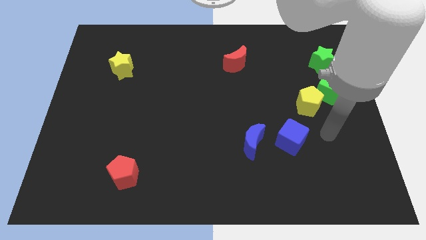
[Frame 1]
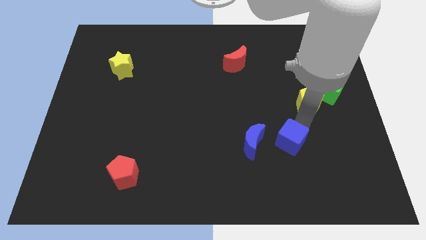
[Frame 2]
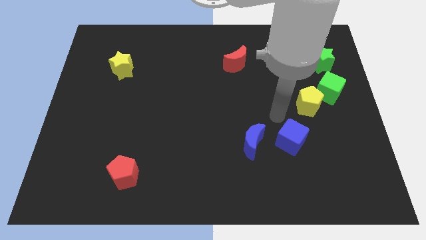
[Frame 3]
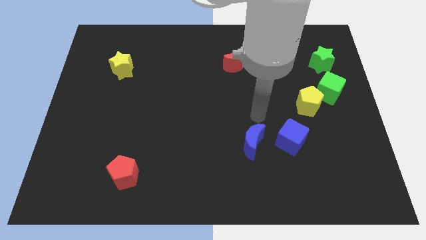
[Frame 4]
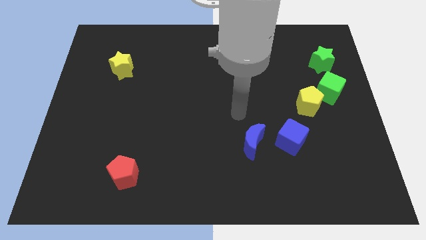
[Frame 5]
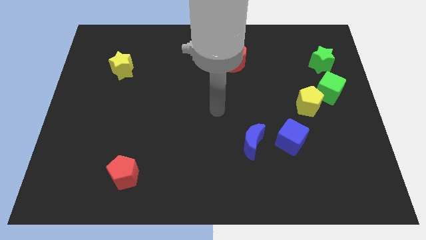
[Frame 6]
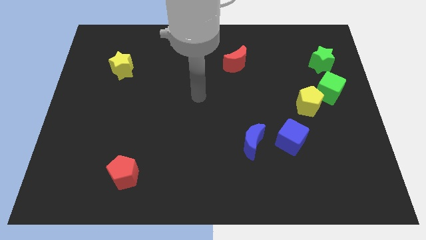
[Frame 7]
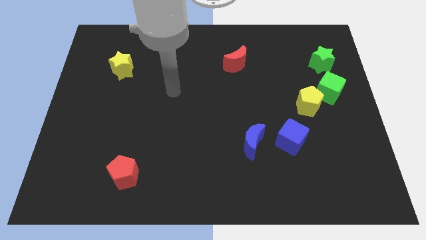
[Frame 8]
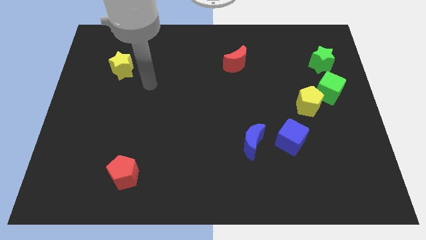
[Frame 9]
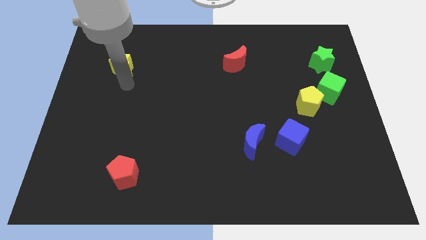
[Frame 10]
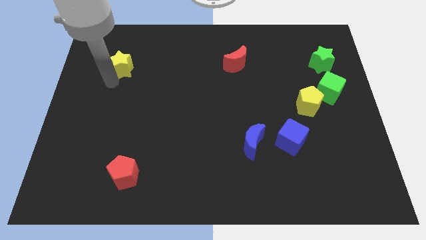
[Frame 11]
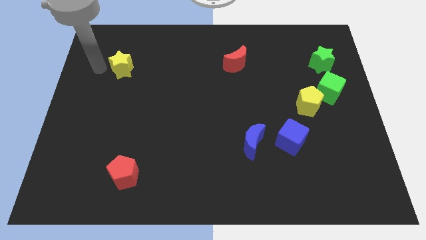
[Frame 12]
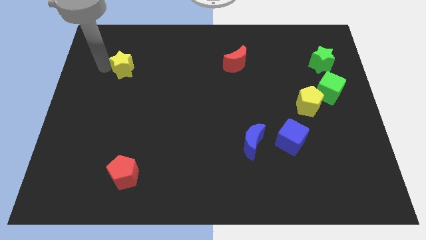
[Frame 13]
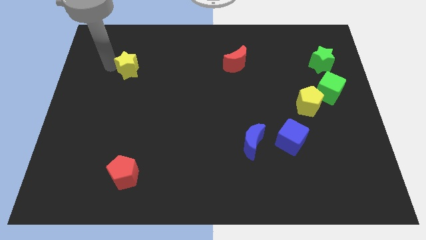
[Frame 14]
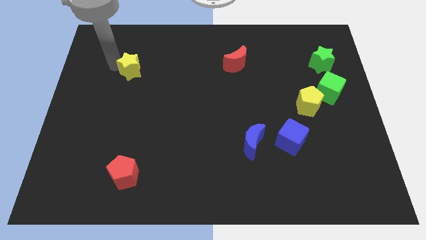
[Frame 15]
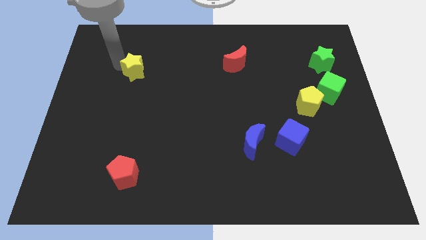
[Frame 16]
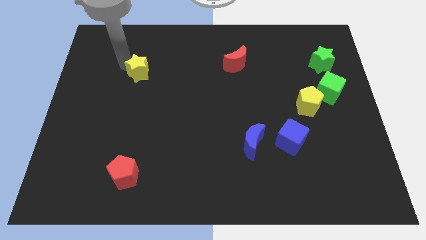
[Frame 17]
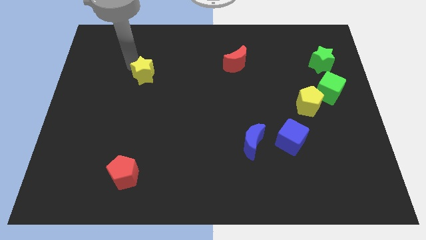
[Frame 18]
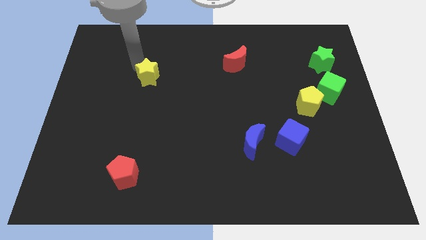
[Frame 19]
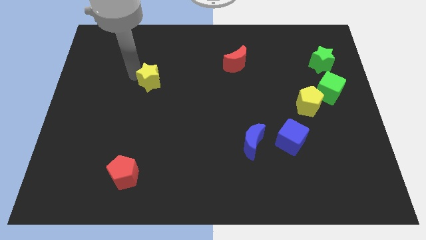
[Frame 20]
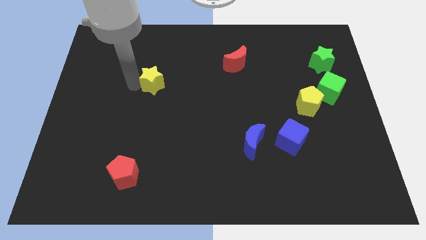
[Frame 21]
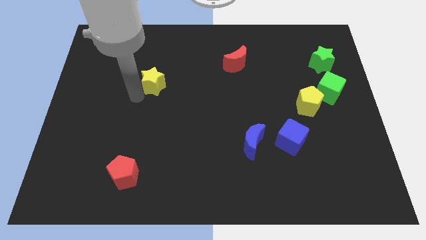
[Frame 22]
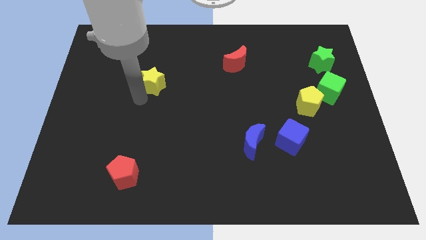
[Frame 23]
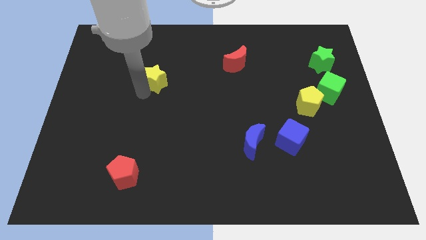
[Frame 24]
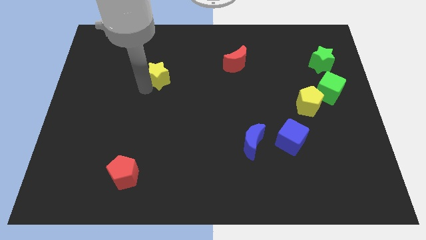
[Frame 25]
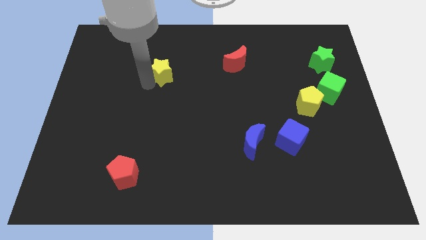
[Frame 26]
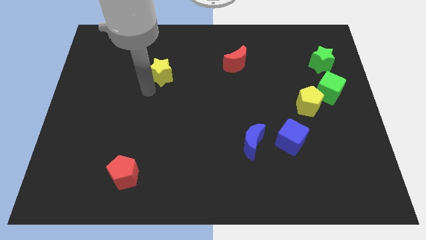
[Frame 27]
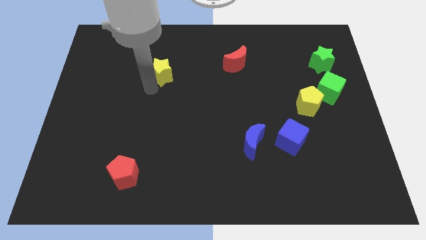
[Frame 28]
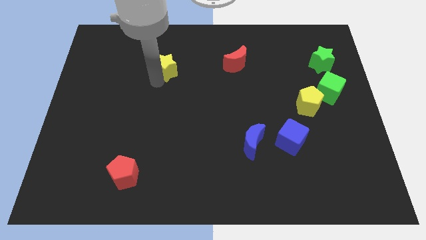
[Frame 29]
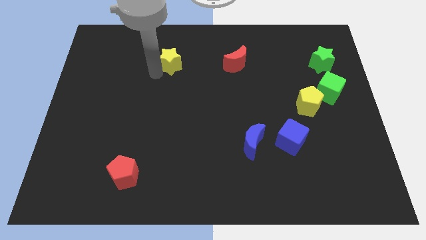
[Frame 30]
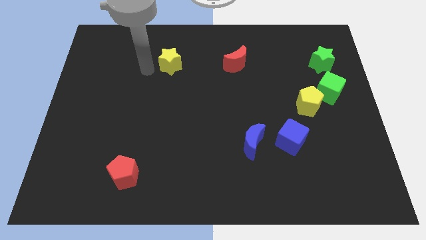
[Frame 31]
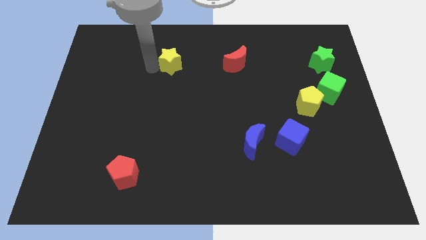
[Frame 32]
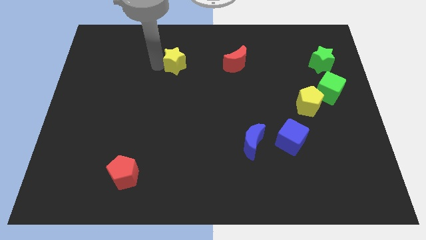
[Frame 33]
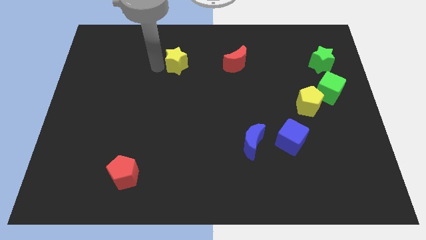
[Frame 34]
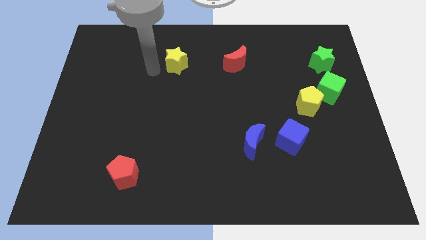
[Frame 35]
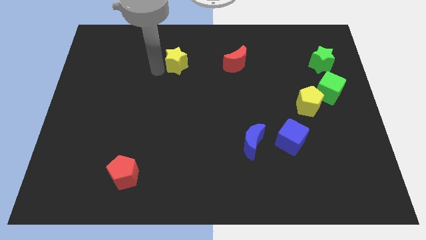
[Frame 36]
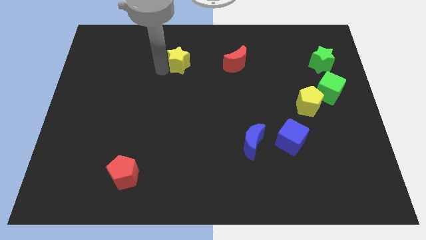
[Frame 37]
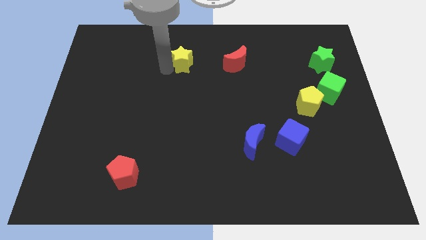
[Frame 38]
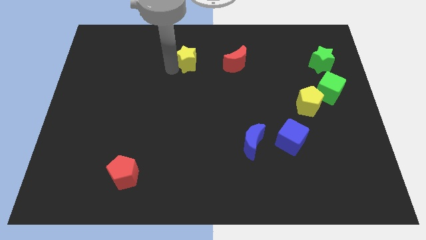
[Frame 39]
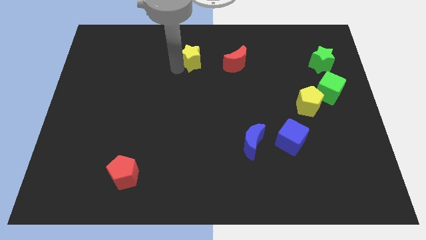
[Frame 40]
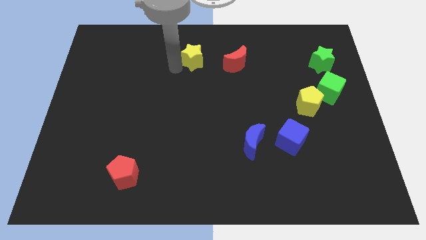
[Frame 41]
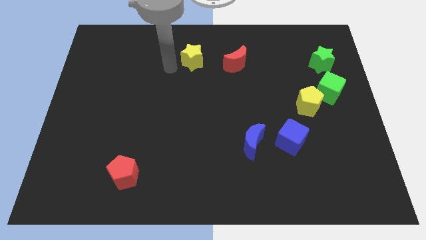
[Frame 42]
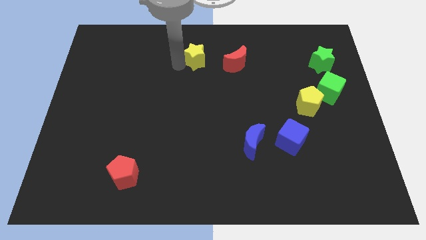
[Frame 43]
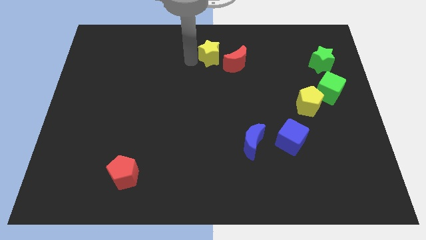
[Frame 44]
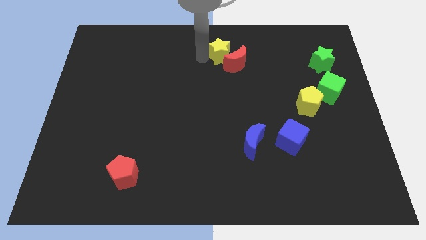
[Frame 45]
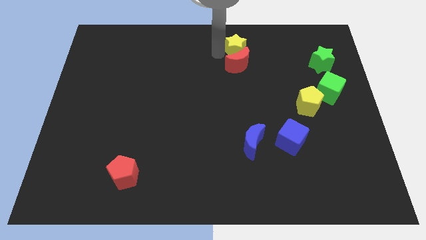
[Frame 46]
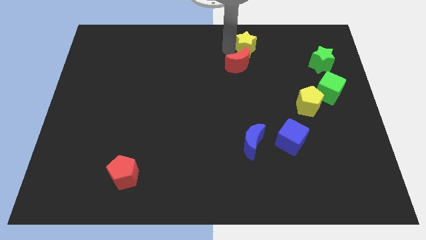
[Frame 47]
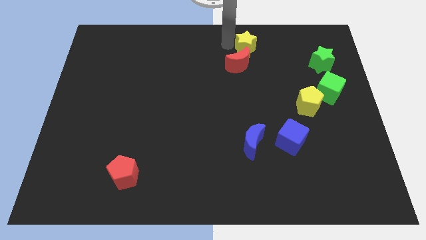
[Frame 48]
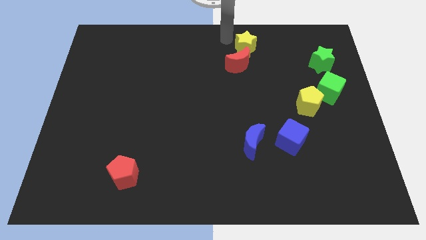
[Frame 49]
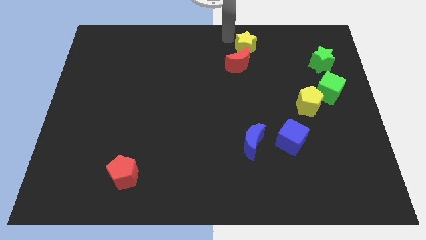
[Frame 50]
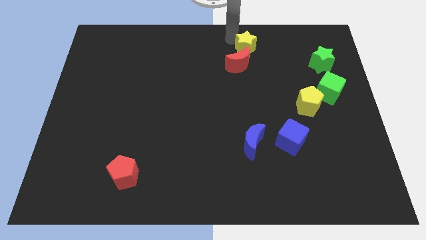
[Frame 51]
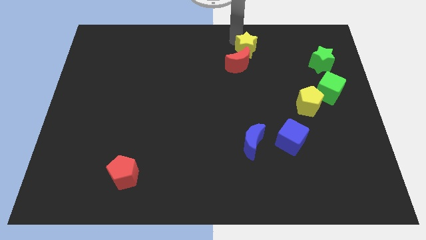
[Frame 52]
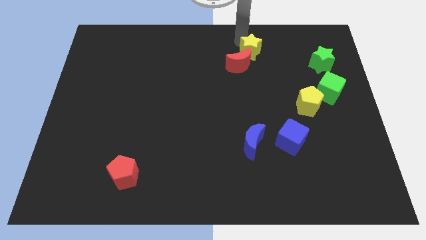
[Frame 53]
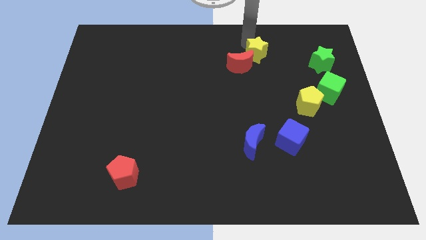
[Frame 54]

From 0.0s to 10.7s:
slide the yellow star just right of the red moon

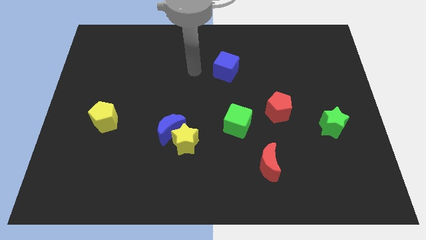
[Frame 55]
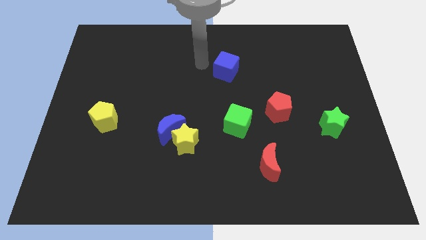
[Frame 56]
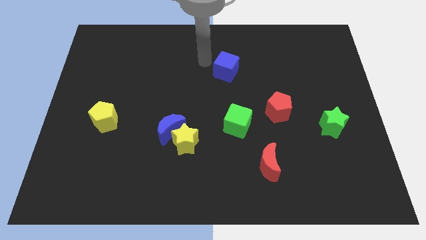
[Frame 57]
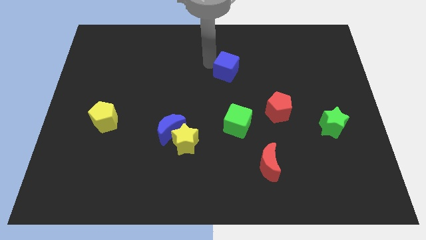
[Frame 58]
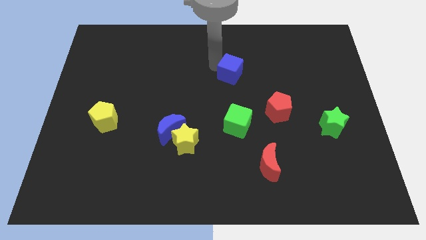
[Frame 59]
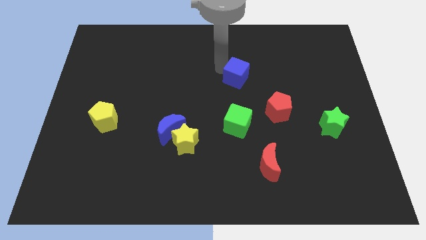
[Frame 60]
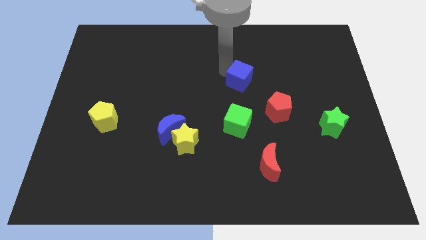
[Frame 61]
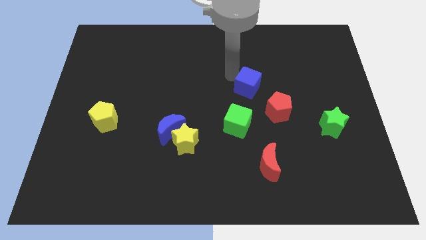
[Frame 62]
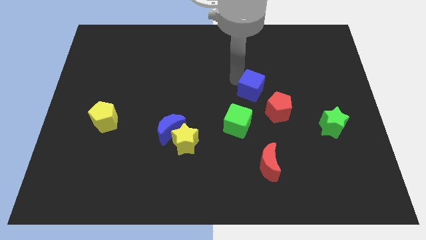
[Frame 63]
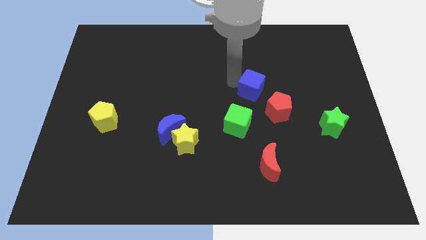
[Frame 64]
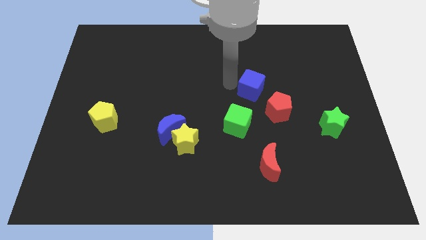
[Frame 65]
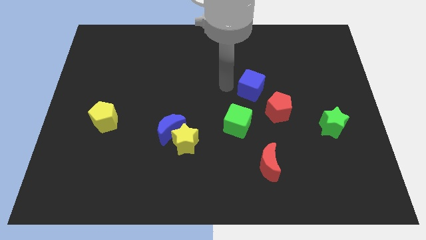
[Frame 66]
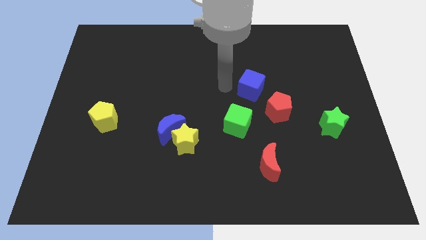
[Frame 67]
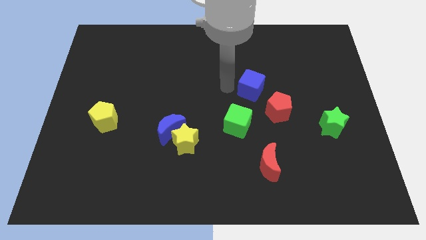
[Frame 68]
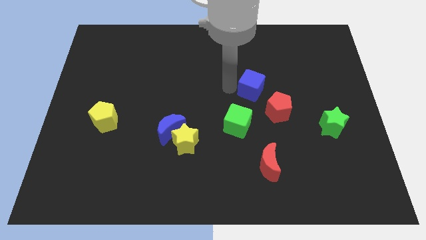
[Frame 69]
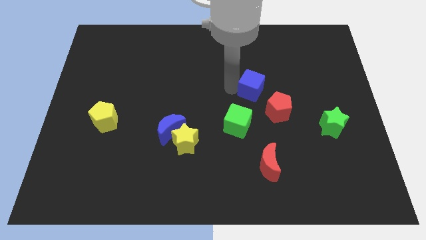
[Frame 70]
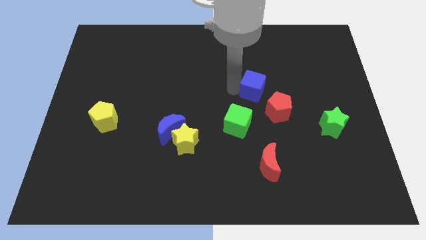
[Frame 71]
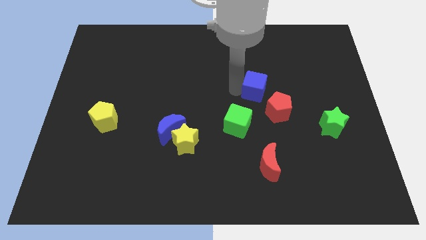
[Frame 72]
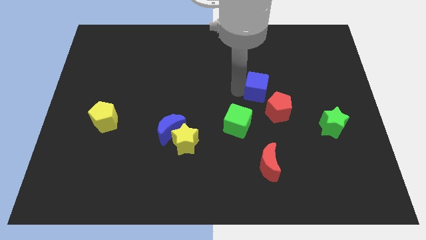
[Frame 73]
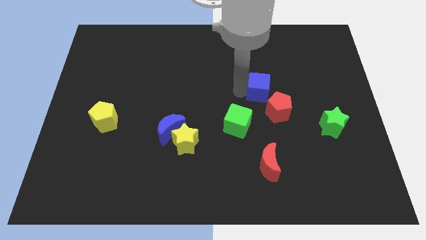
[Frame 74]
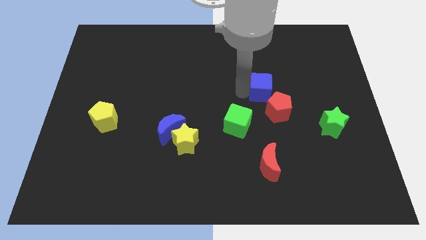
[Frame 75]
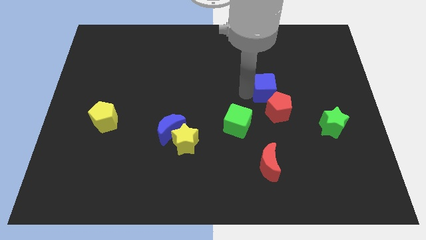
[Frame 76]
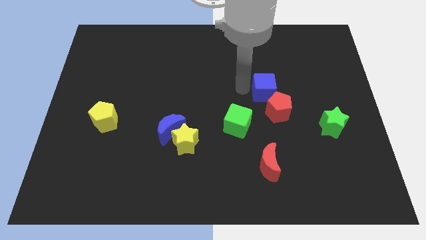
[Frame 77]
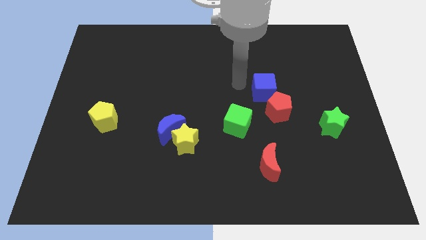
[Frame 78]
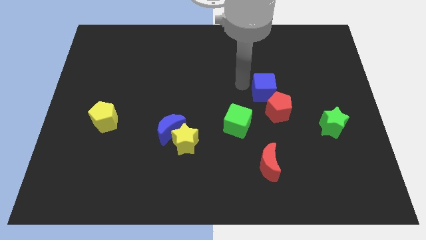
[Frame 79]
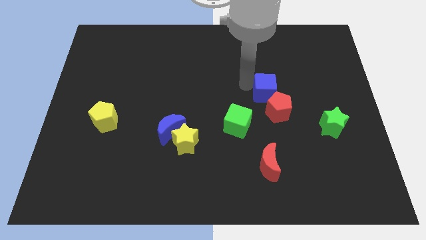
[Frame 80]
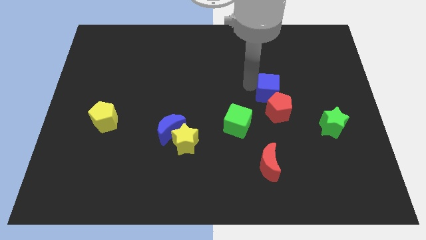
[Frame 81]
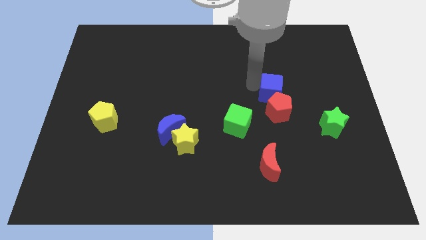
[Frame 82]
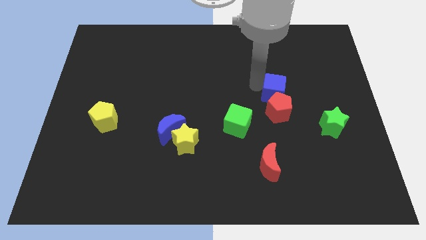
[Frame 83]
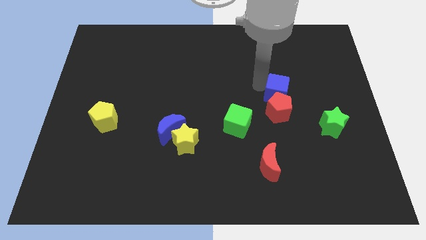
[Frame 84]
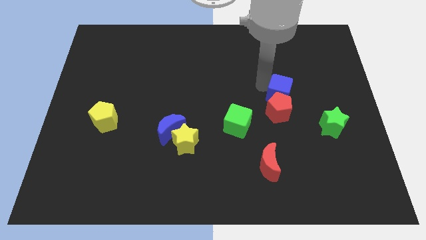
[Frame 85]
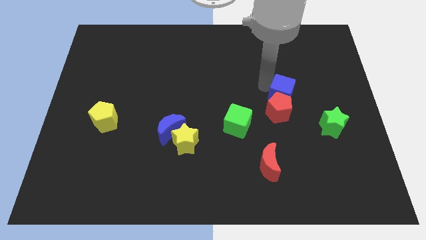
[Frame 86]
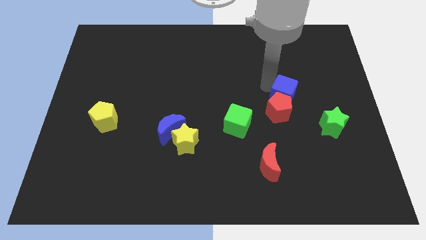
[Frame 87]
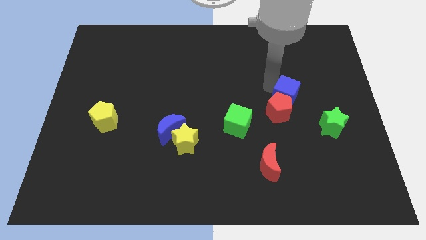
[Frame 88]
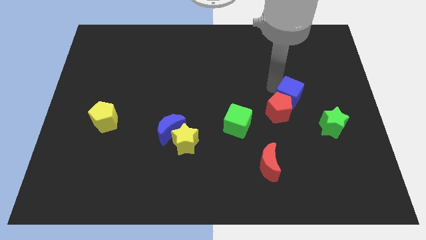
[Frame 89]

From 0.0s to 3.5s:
move the blue cube to the right side of the red pentagon
